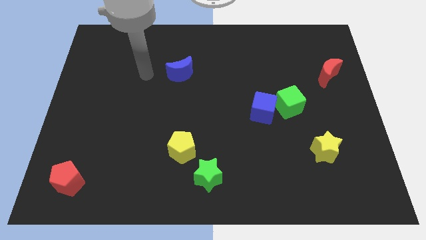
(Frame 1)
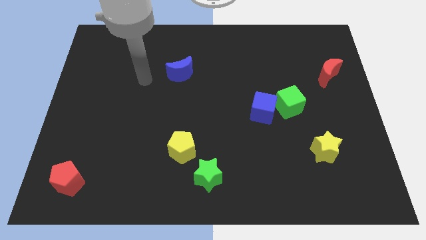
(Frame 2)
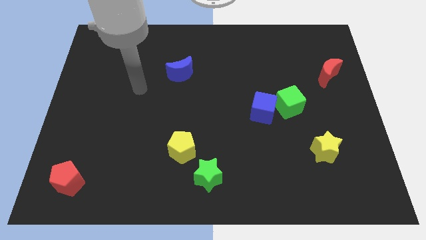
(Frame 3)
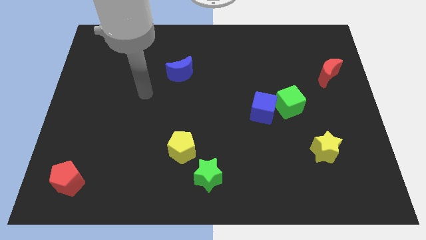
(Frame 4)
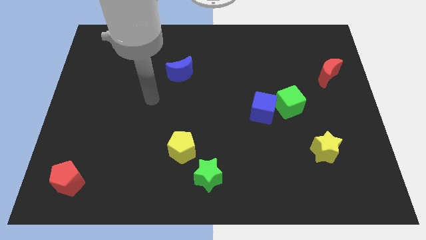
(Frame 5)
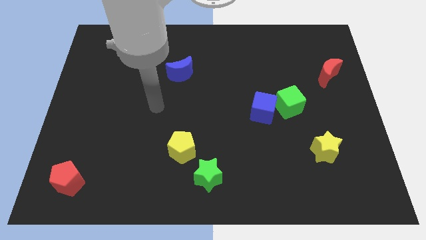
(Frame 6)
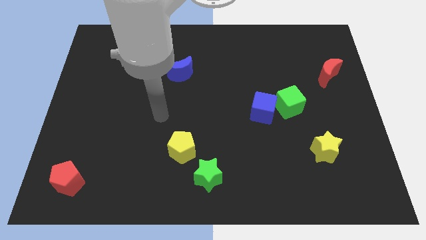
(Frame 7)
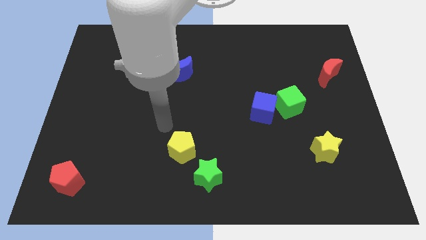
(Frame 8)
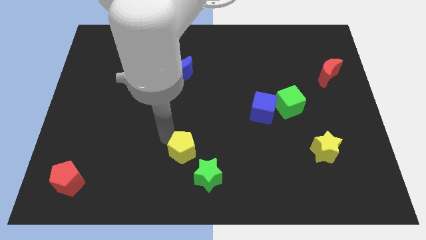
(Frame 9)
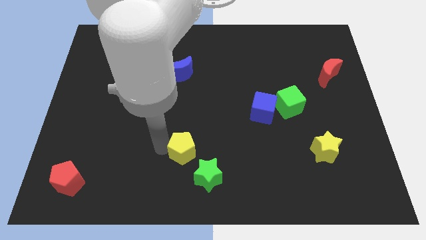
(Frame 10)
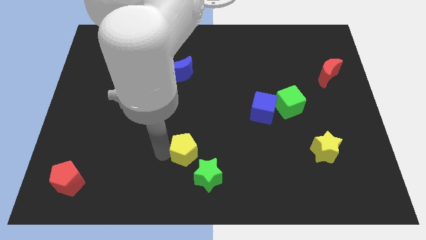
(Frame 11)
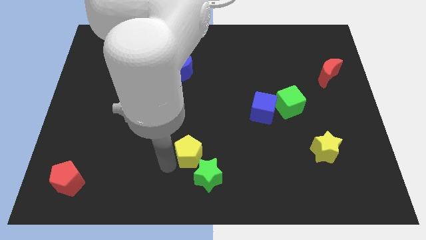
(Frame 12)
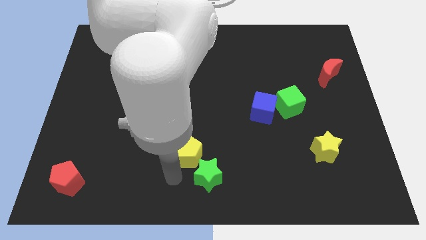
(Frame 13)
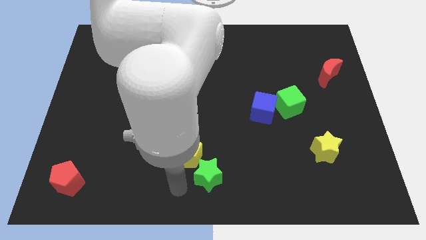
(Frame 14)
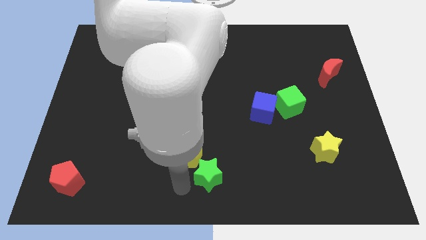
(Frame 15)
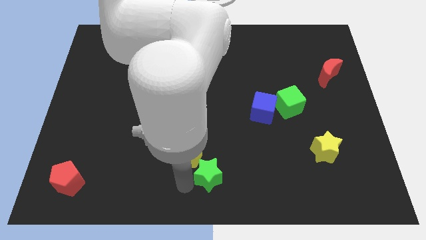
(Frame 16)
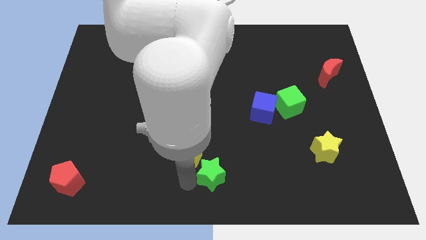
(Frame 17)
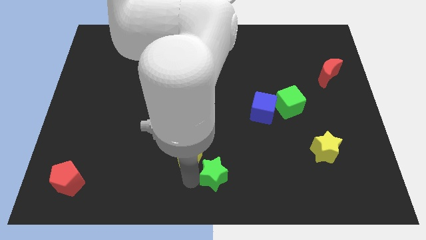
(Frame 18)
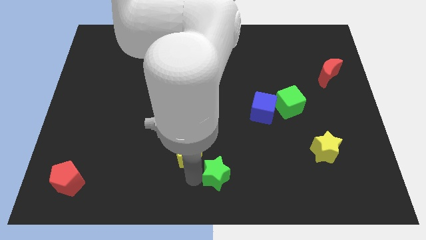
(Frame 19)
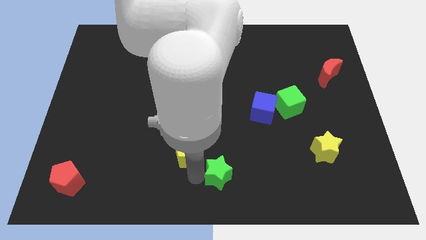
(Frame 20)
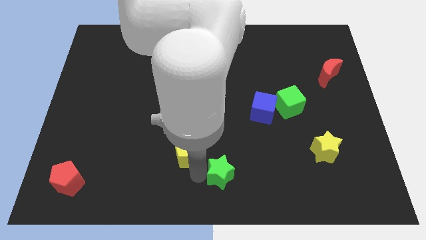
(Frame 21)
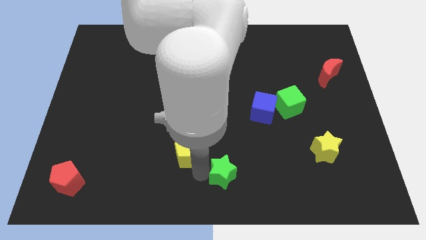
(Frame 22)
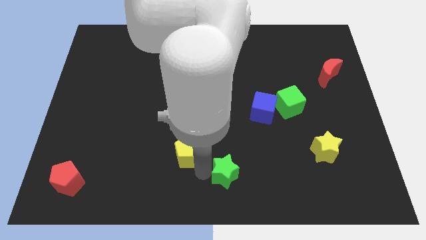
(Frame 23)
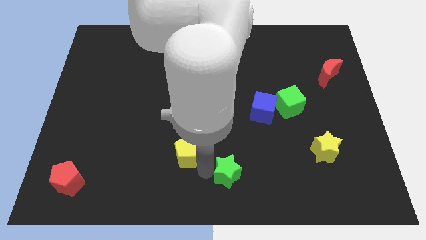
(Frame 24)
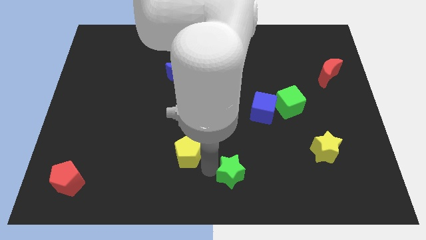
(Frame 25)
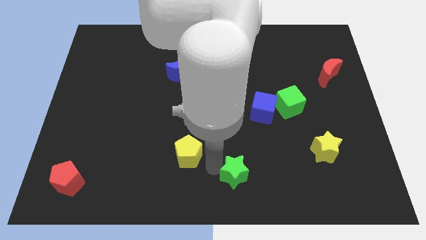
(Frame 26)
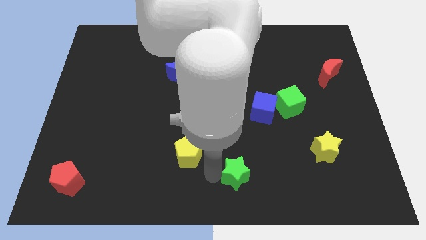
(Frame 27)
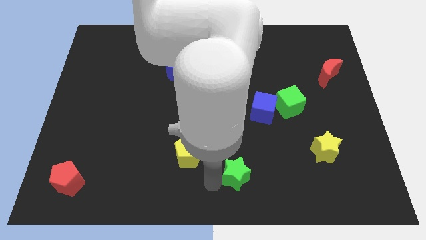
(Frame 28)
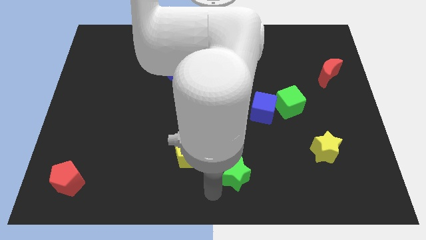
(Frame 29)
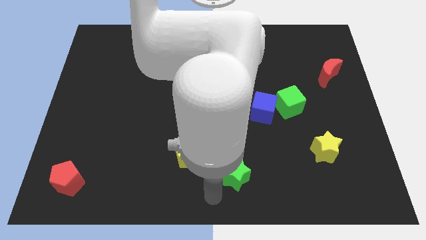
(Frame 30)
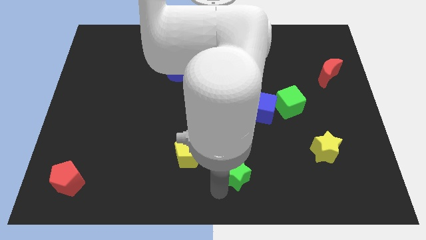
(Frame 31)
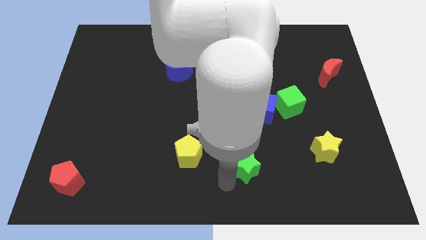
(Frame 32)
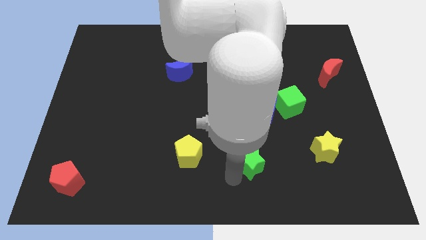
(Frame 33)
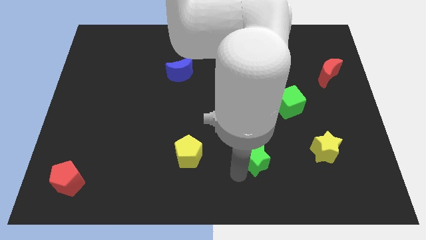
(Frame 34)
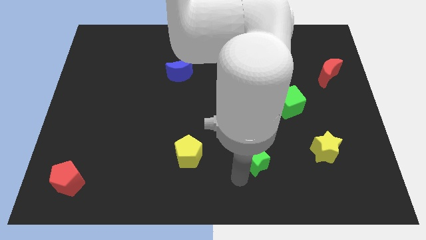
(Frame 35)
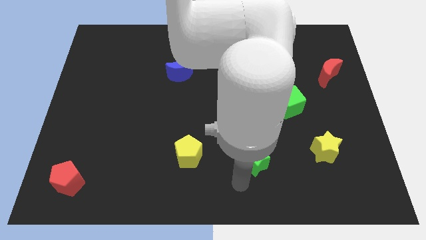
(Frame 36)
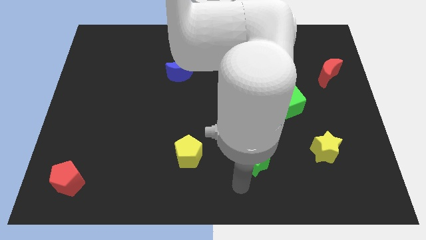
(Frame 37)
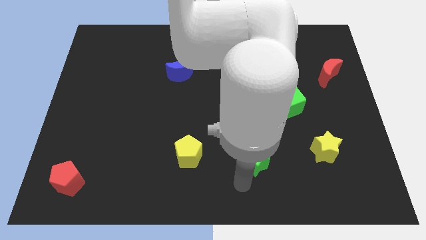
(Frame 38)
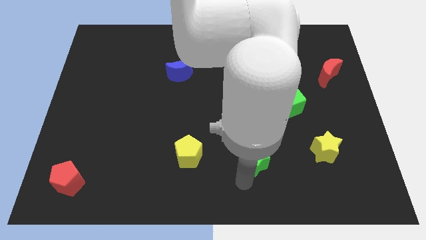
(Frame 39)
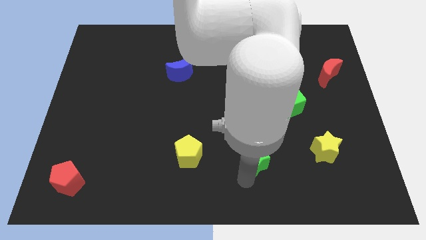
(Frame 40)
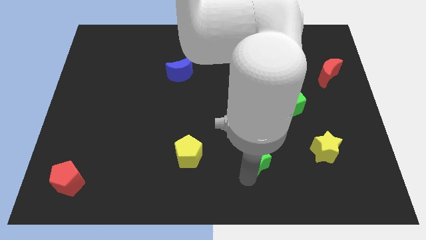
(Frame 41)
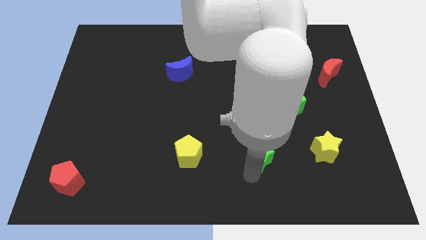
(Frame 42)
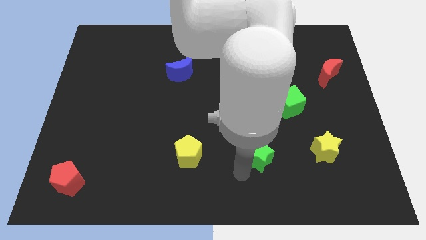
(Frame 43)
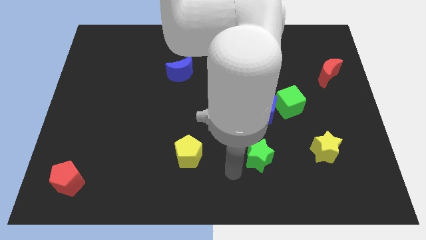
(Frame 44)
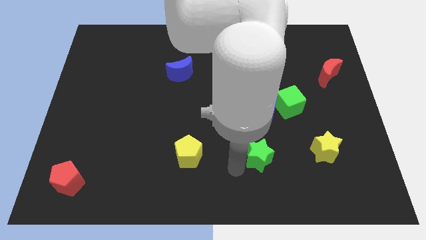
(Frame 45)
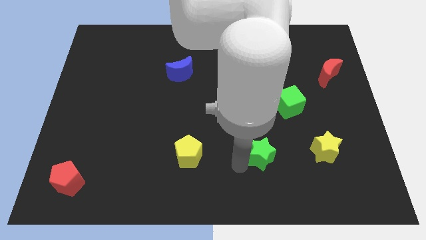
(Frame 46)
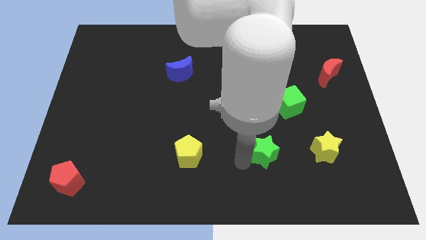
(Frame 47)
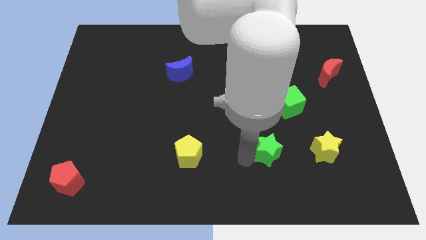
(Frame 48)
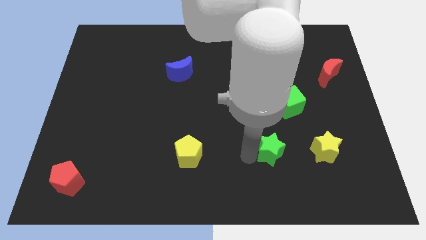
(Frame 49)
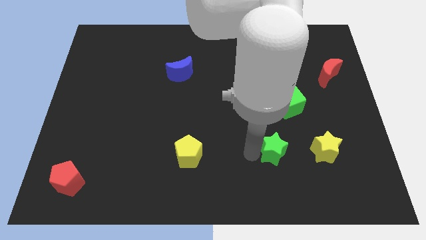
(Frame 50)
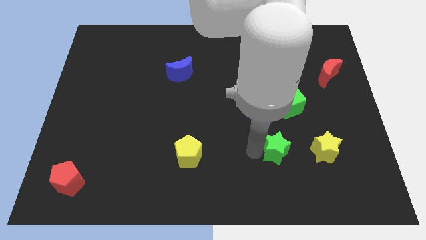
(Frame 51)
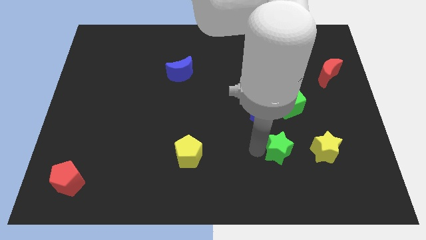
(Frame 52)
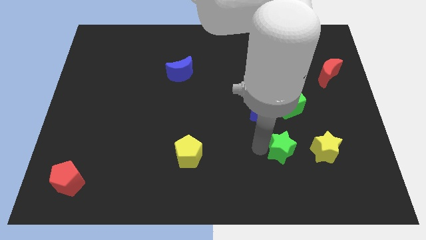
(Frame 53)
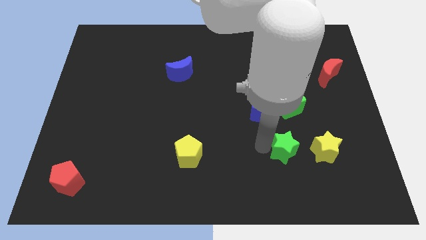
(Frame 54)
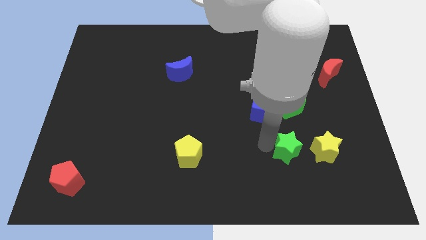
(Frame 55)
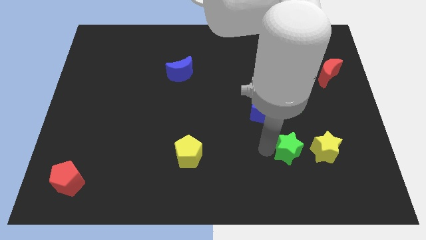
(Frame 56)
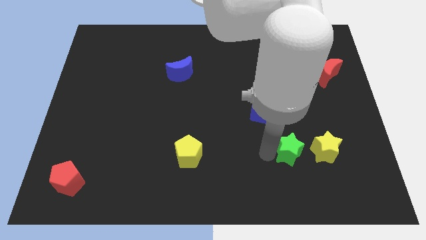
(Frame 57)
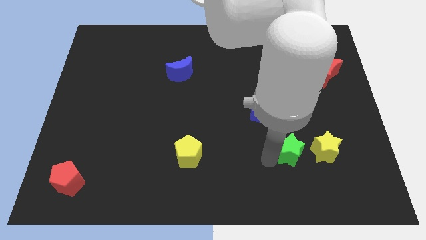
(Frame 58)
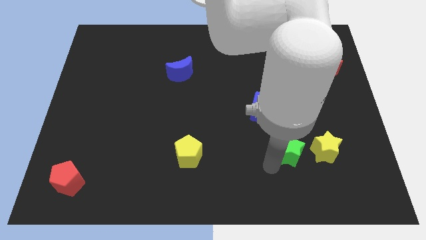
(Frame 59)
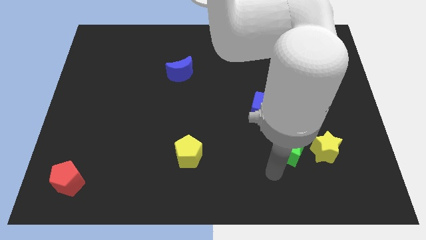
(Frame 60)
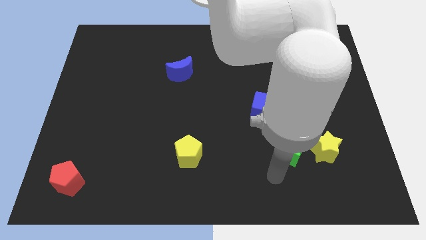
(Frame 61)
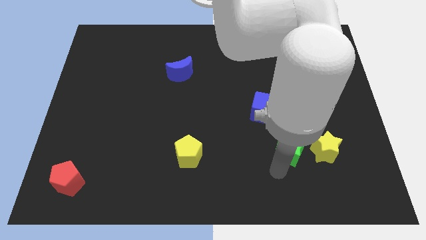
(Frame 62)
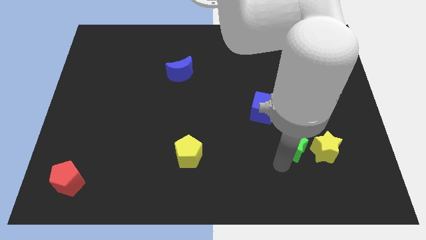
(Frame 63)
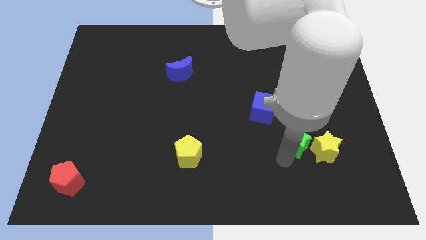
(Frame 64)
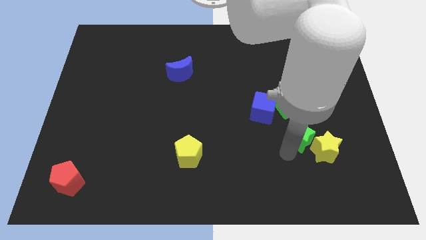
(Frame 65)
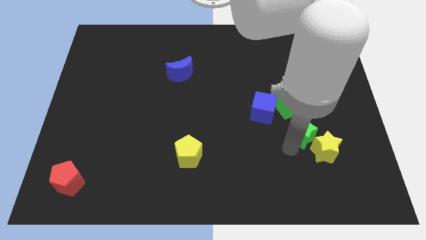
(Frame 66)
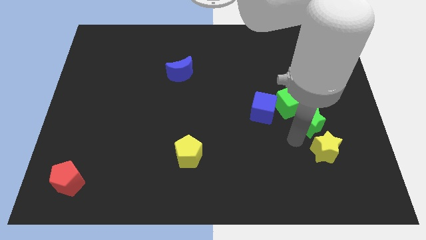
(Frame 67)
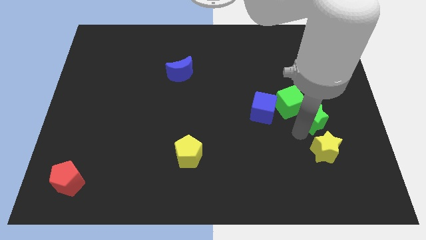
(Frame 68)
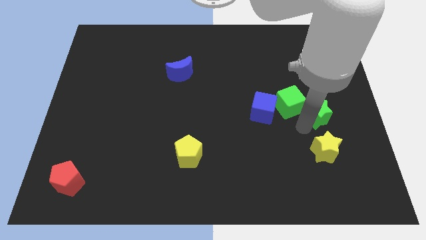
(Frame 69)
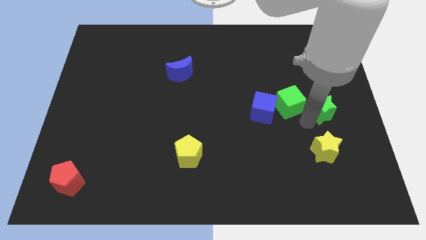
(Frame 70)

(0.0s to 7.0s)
push the green star to the bottom side of the red moon

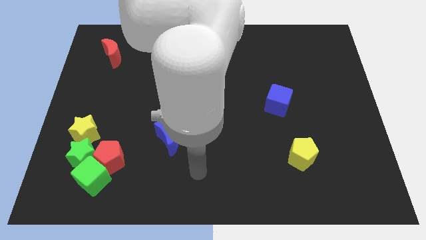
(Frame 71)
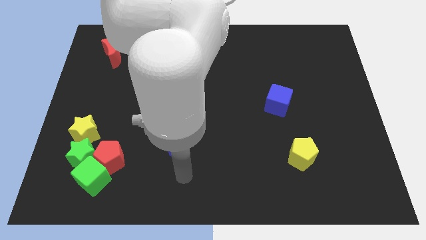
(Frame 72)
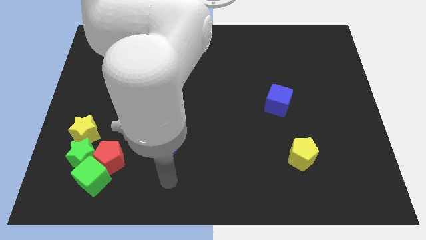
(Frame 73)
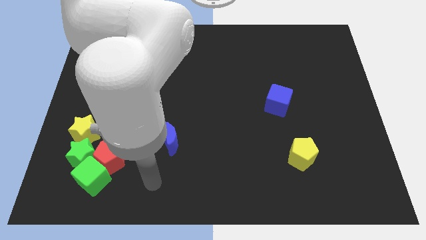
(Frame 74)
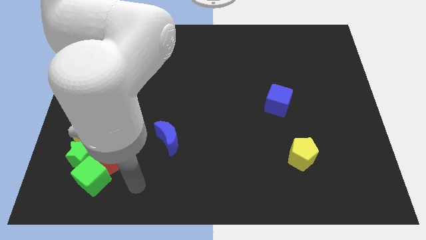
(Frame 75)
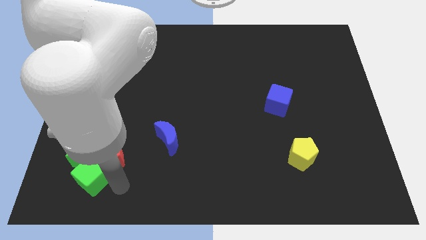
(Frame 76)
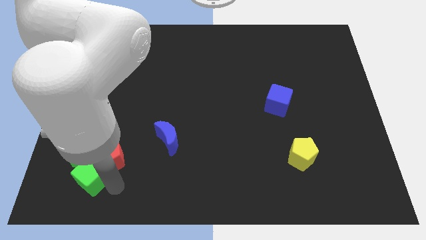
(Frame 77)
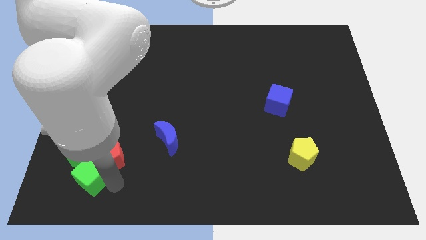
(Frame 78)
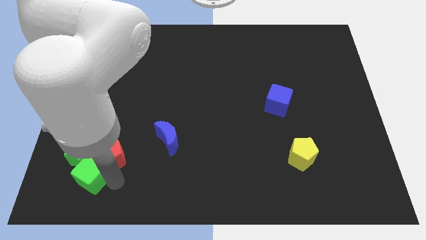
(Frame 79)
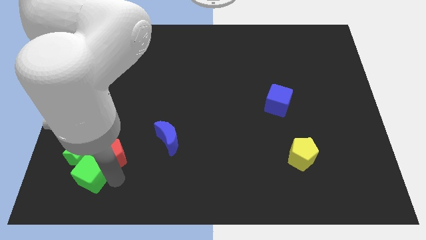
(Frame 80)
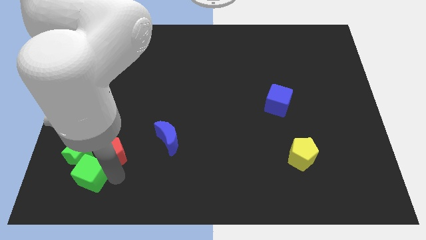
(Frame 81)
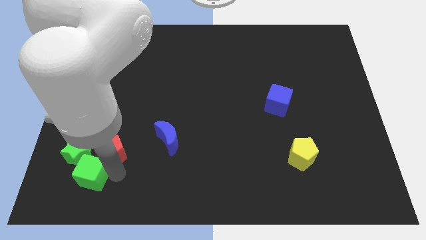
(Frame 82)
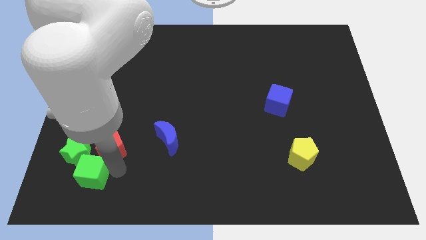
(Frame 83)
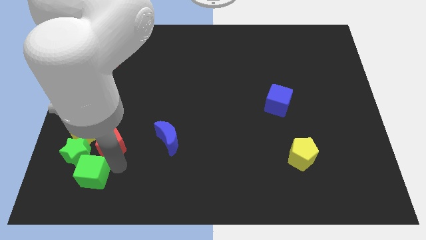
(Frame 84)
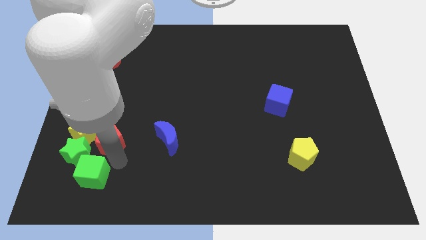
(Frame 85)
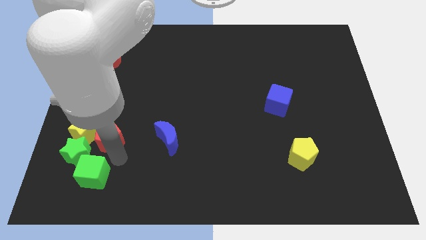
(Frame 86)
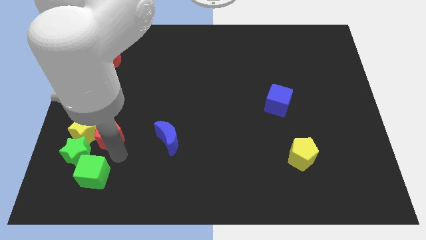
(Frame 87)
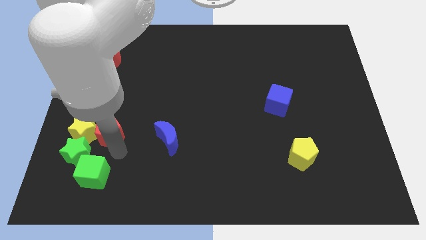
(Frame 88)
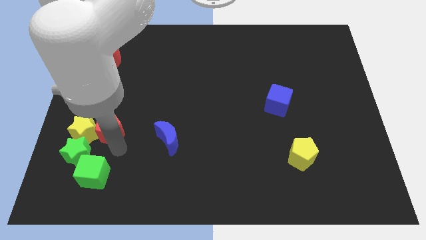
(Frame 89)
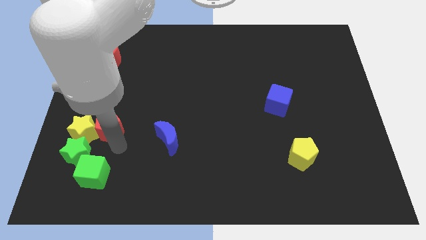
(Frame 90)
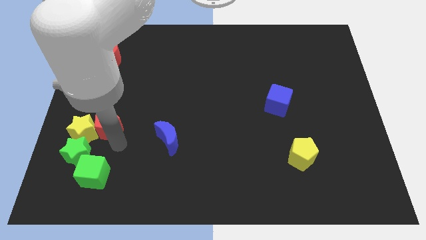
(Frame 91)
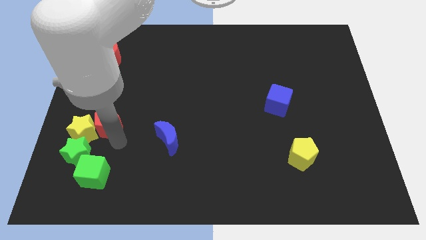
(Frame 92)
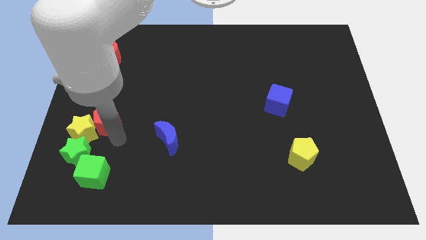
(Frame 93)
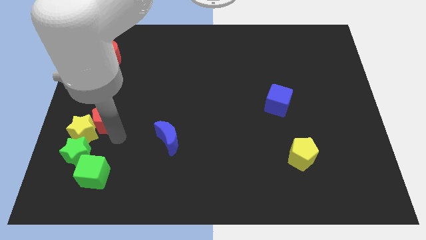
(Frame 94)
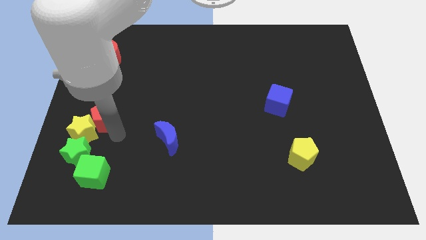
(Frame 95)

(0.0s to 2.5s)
push the red pentagon to the top side of the yellow star
